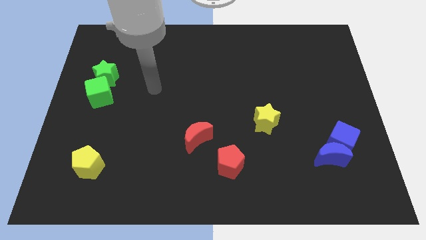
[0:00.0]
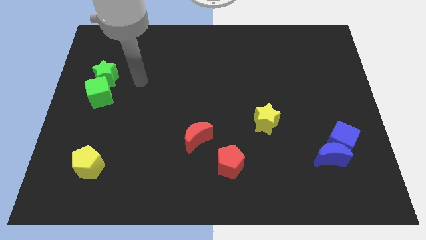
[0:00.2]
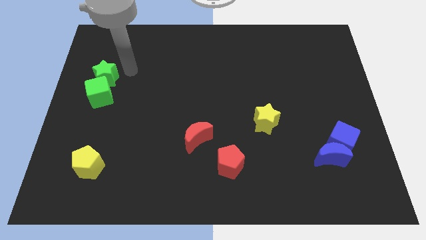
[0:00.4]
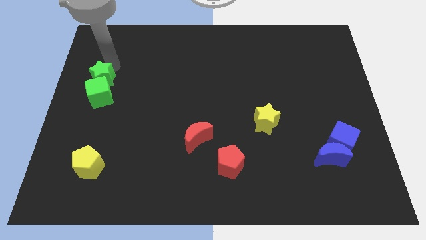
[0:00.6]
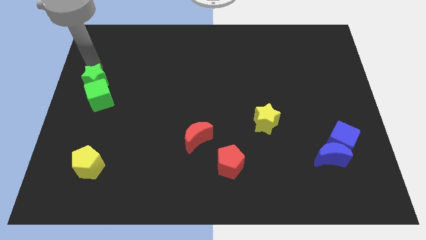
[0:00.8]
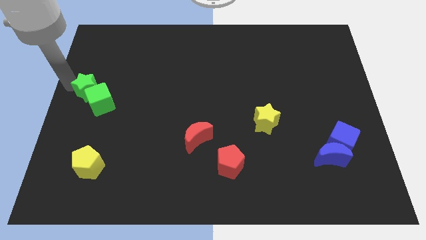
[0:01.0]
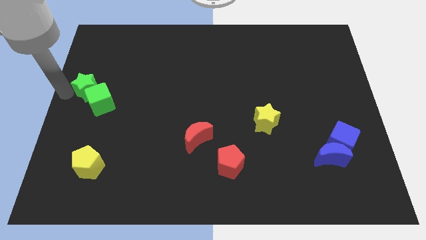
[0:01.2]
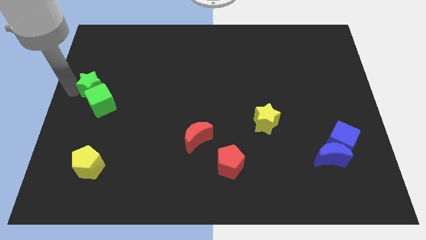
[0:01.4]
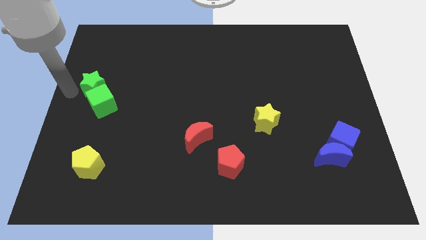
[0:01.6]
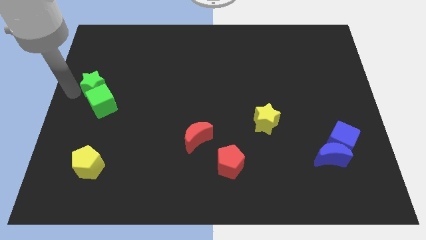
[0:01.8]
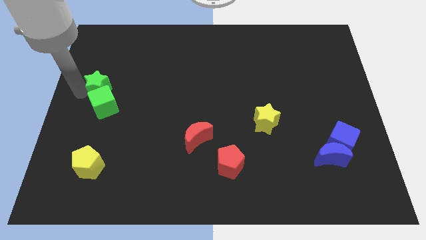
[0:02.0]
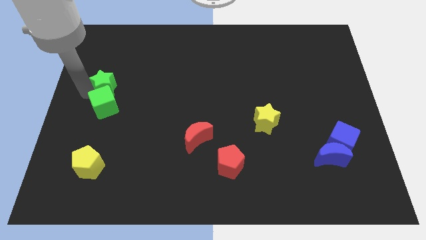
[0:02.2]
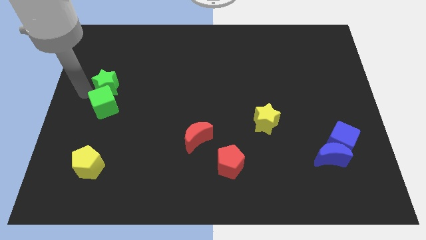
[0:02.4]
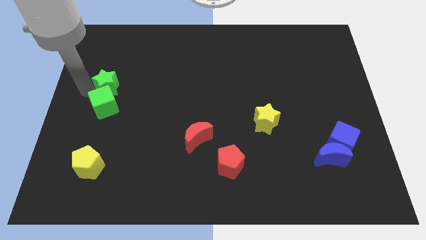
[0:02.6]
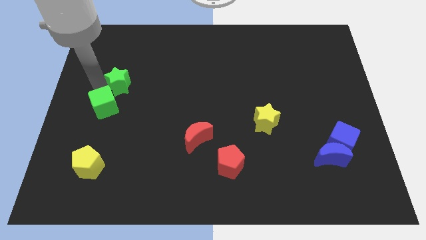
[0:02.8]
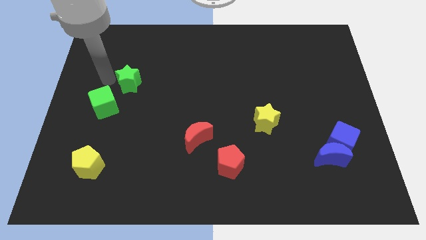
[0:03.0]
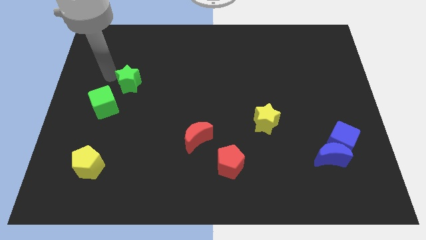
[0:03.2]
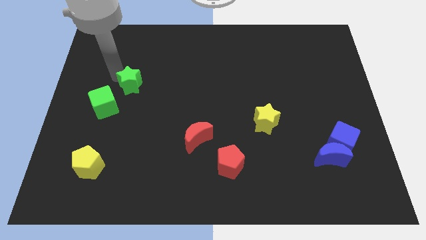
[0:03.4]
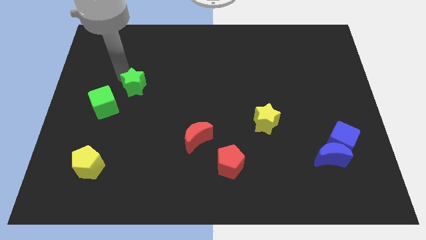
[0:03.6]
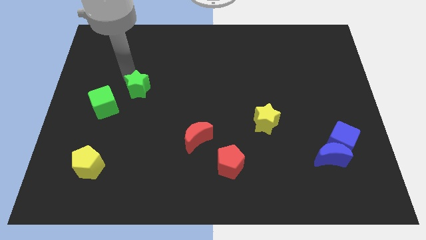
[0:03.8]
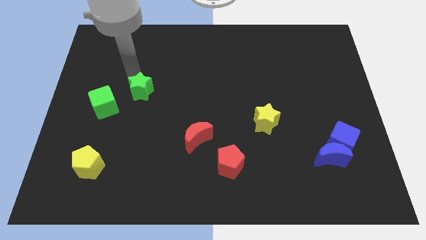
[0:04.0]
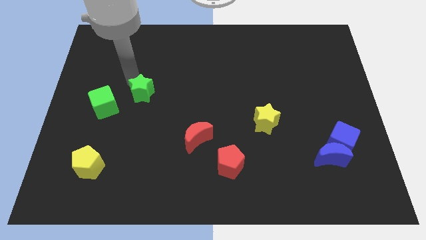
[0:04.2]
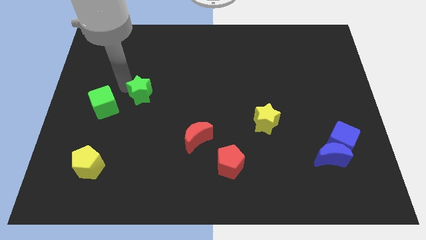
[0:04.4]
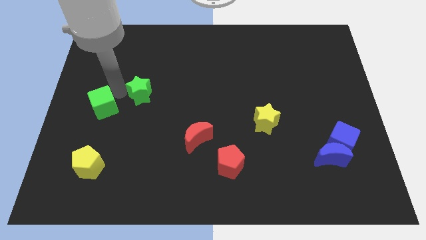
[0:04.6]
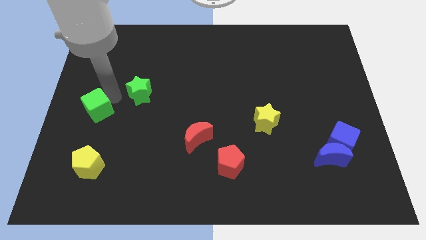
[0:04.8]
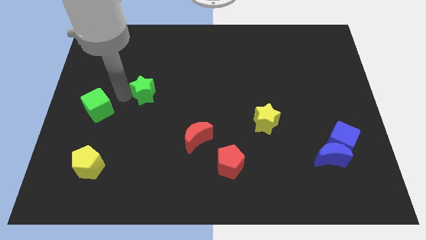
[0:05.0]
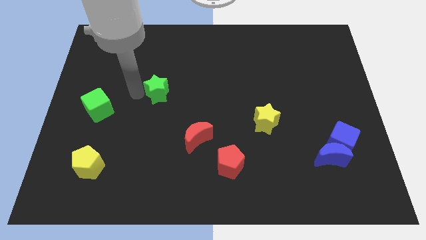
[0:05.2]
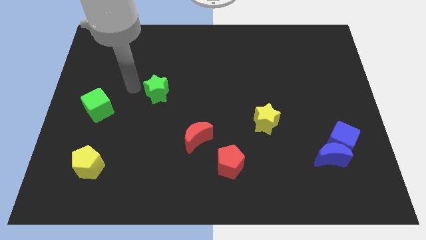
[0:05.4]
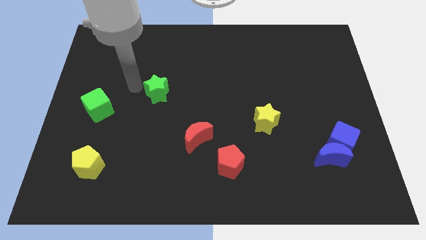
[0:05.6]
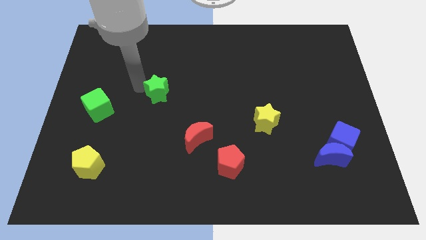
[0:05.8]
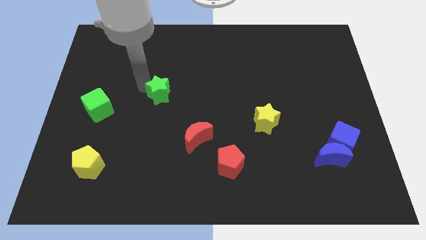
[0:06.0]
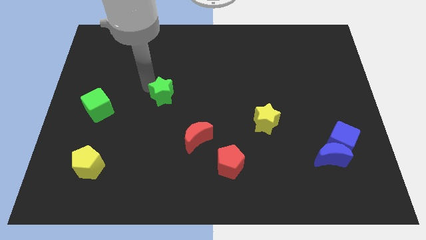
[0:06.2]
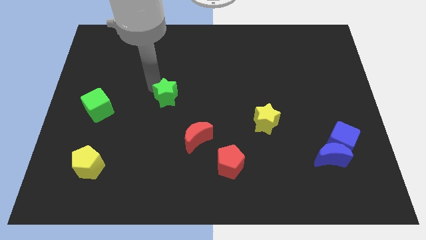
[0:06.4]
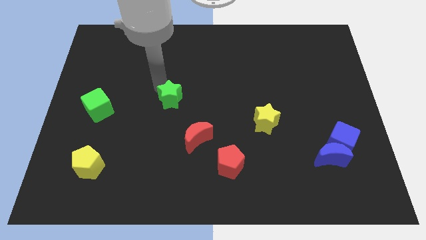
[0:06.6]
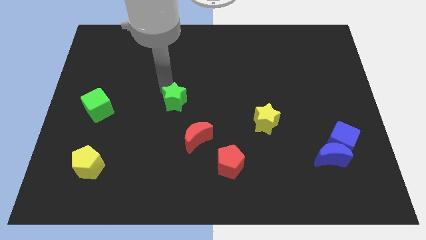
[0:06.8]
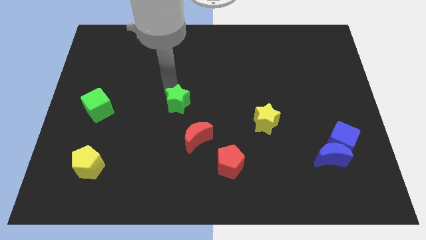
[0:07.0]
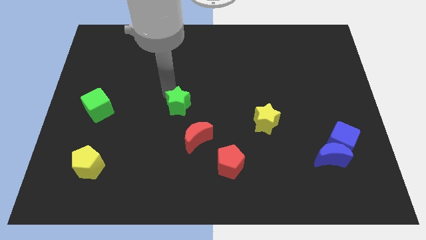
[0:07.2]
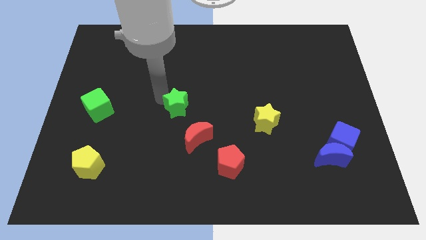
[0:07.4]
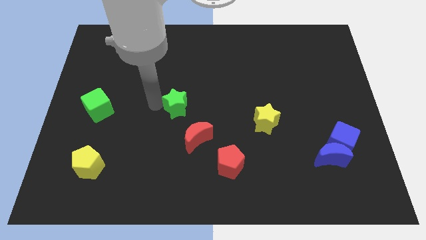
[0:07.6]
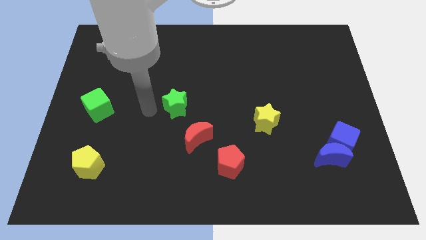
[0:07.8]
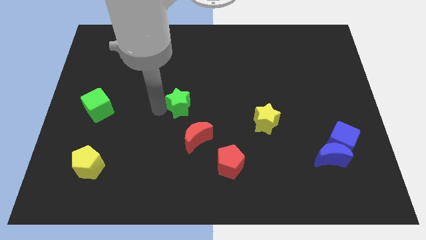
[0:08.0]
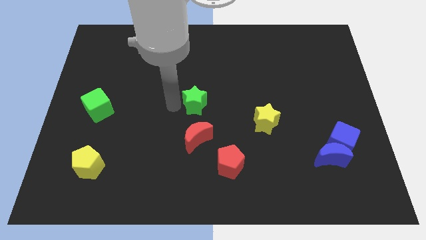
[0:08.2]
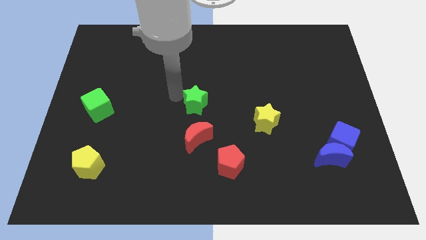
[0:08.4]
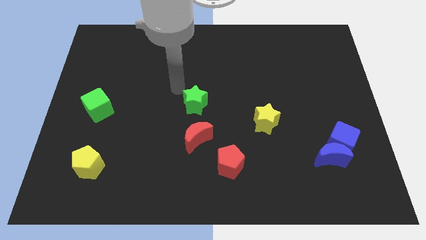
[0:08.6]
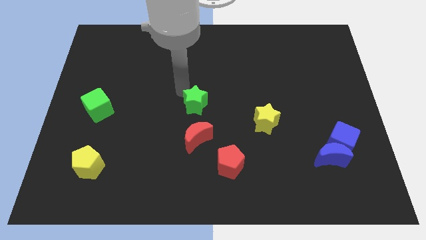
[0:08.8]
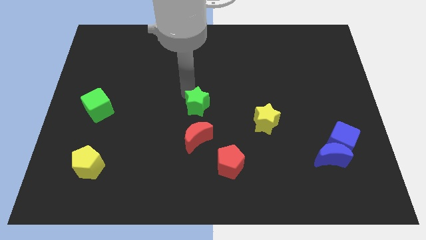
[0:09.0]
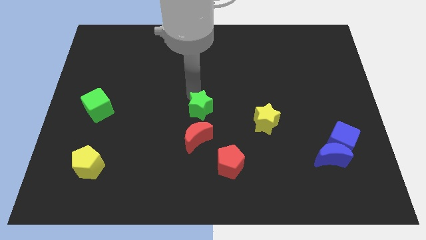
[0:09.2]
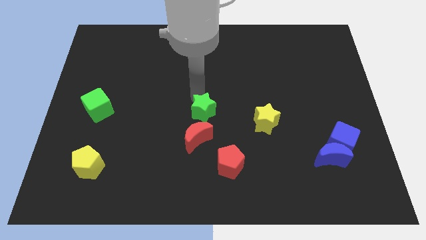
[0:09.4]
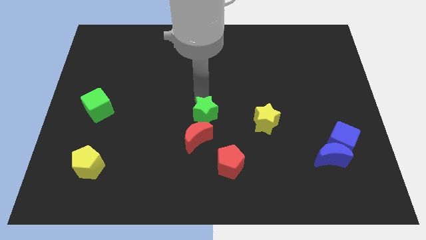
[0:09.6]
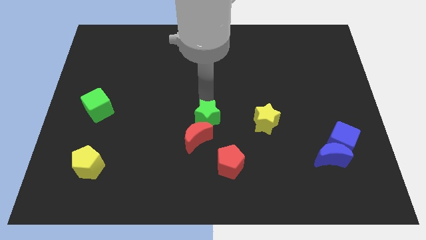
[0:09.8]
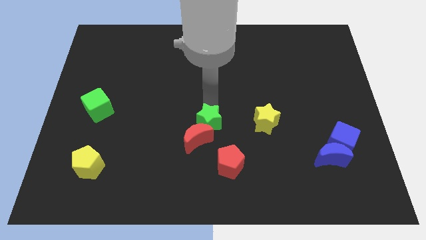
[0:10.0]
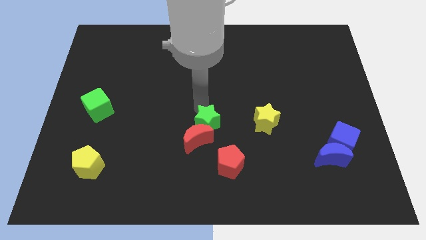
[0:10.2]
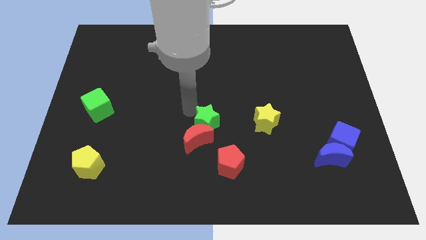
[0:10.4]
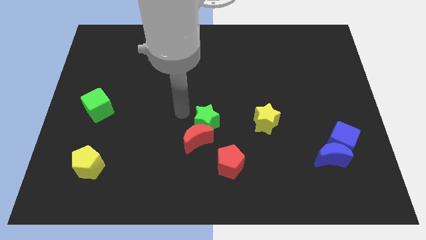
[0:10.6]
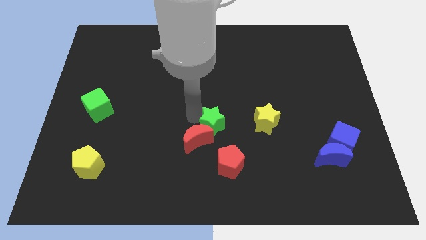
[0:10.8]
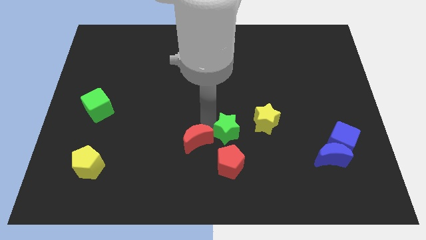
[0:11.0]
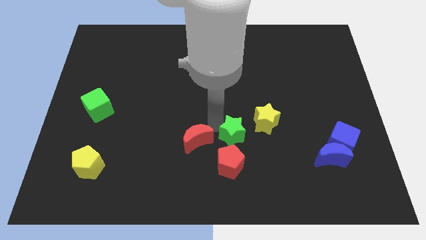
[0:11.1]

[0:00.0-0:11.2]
slide the green star diagonally up and to the right of the red pentagon

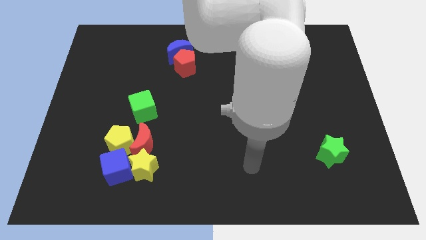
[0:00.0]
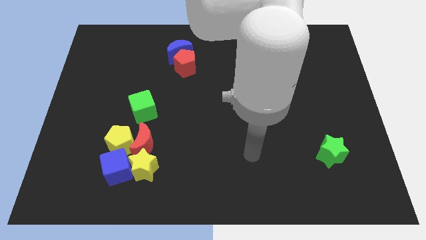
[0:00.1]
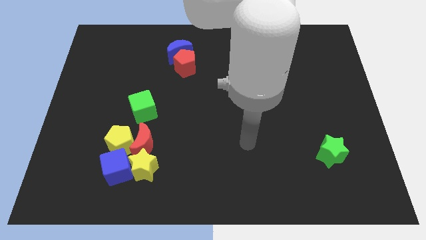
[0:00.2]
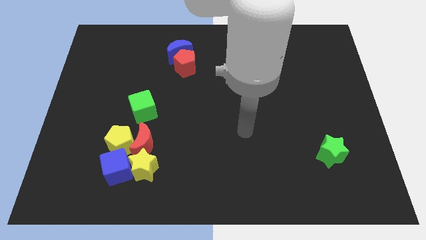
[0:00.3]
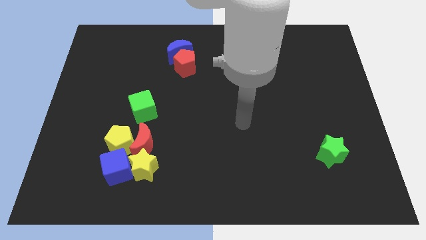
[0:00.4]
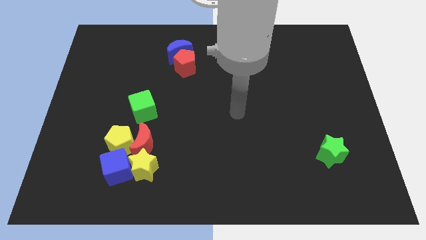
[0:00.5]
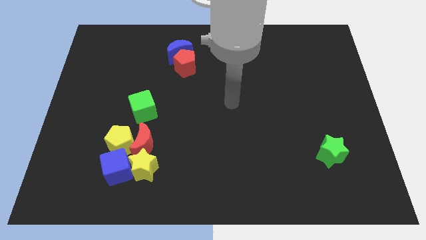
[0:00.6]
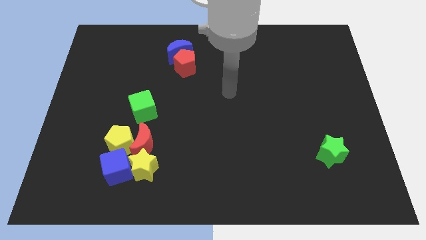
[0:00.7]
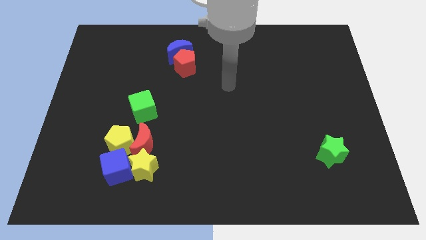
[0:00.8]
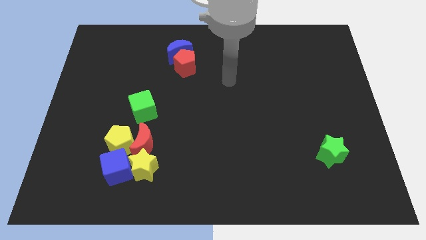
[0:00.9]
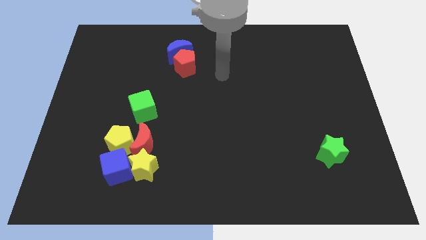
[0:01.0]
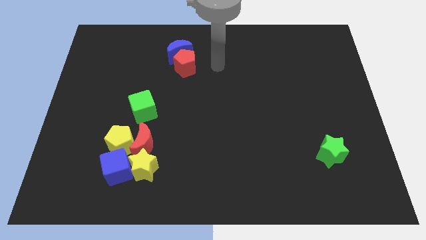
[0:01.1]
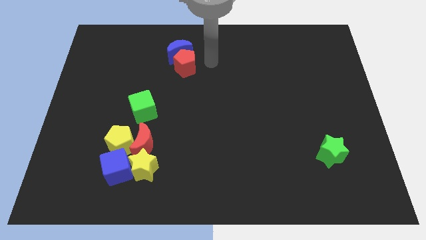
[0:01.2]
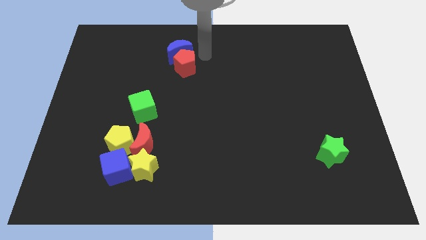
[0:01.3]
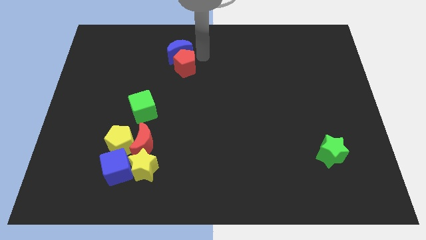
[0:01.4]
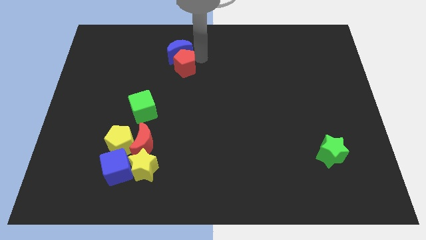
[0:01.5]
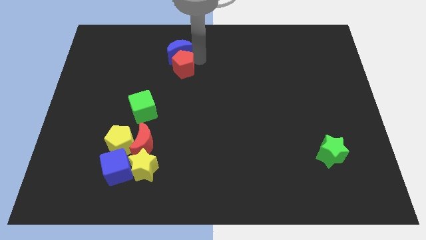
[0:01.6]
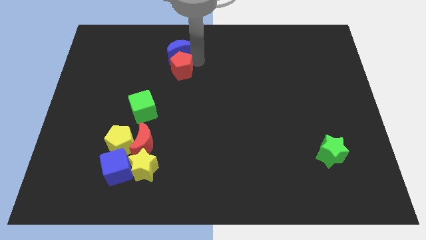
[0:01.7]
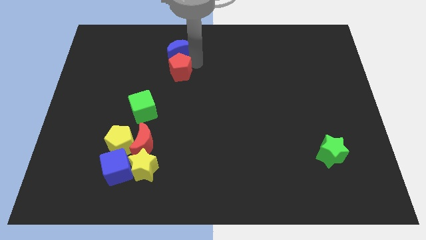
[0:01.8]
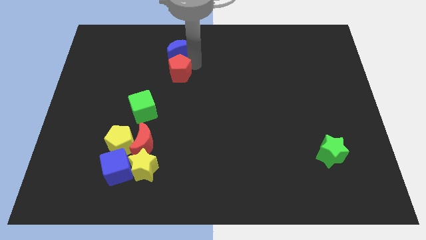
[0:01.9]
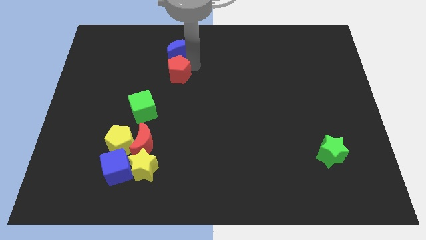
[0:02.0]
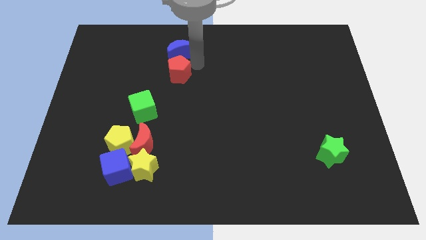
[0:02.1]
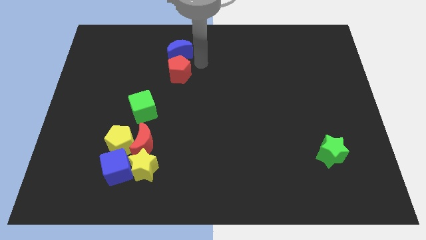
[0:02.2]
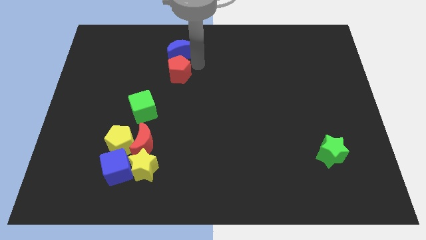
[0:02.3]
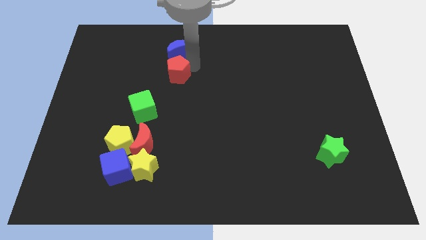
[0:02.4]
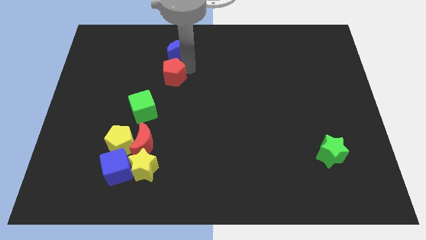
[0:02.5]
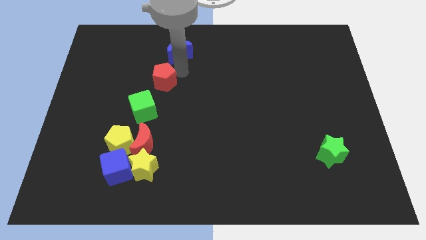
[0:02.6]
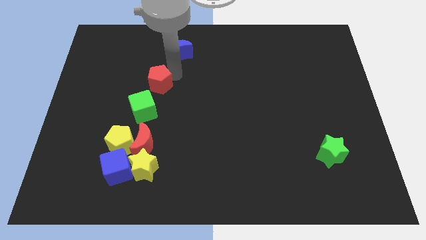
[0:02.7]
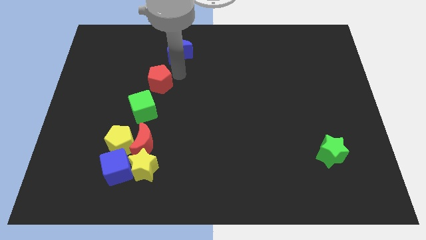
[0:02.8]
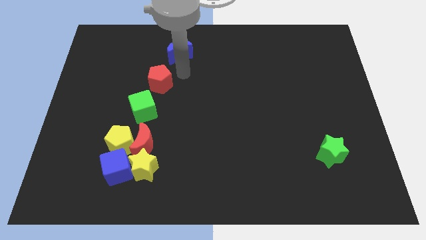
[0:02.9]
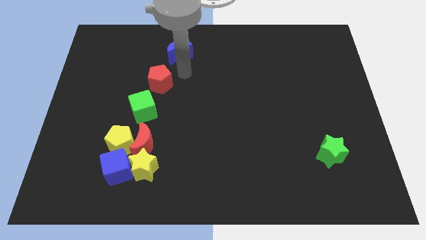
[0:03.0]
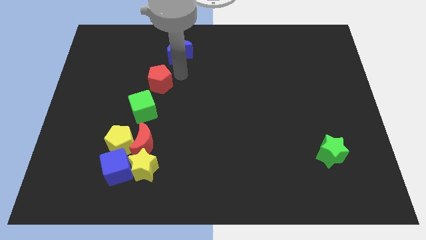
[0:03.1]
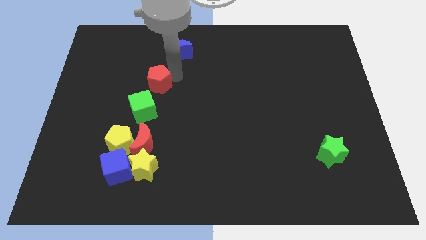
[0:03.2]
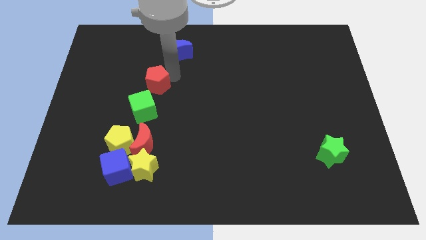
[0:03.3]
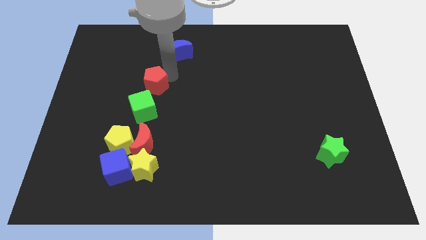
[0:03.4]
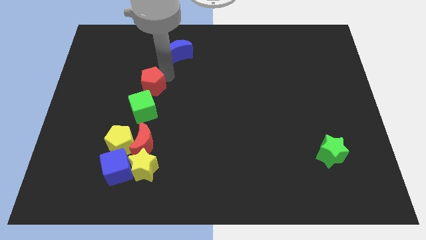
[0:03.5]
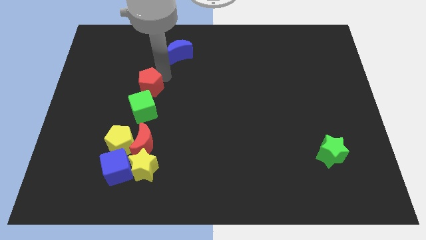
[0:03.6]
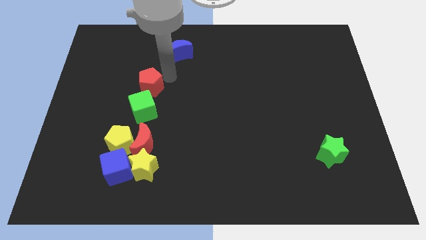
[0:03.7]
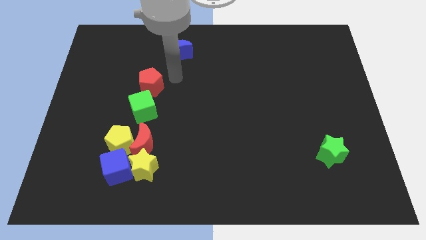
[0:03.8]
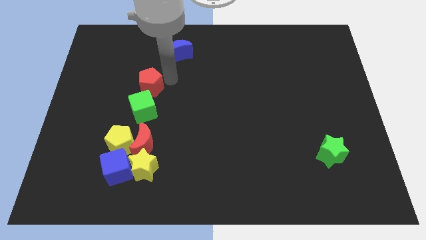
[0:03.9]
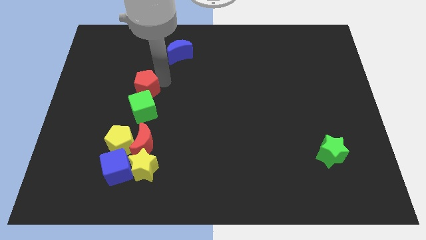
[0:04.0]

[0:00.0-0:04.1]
slide the red pentagon to the top left side of the green cube
